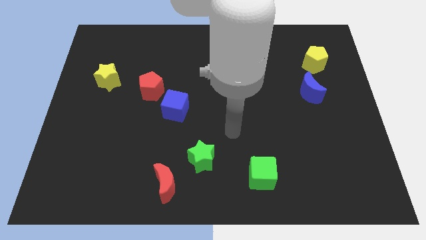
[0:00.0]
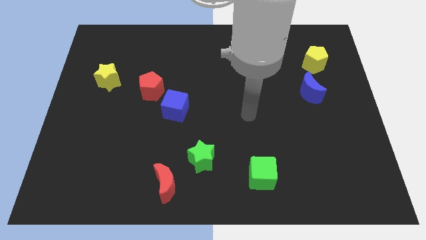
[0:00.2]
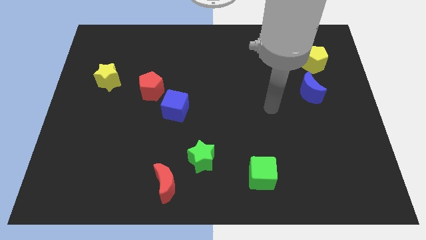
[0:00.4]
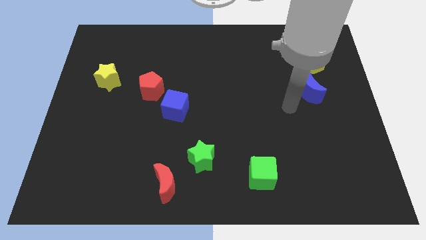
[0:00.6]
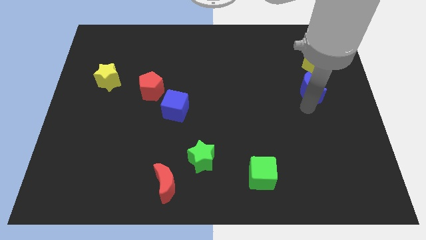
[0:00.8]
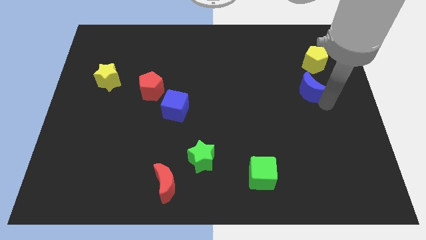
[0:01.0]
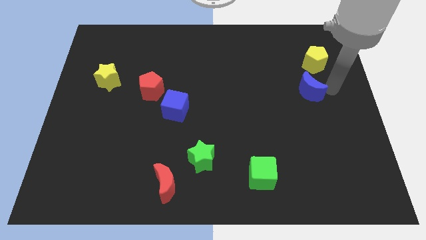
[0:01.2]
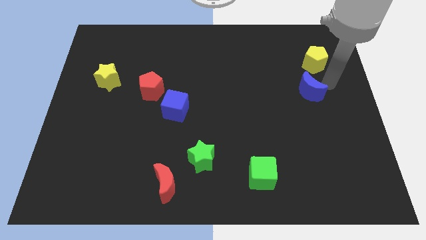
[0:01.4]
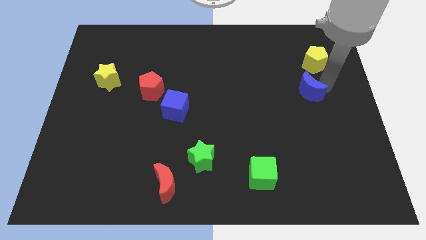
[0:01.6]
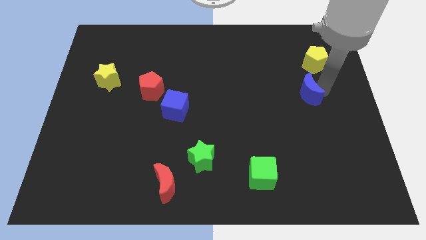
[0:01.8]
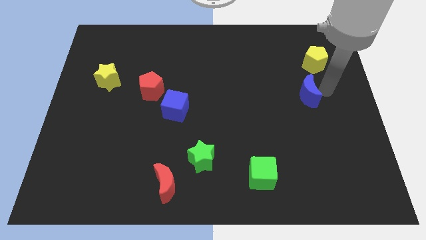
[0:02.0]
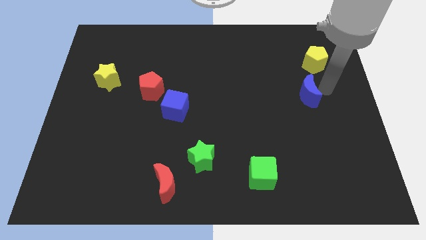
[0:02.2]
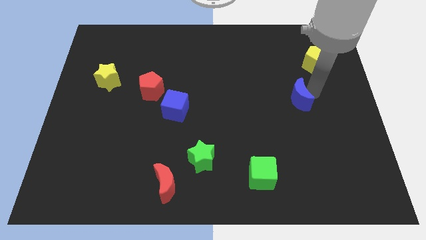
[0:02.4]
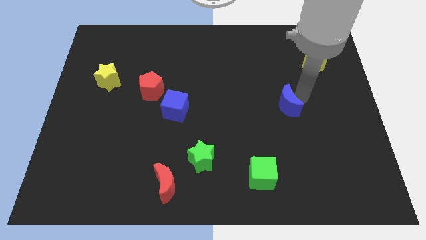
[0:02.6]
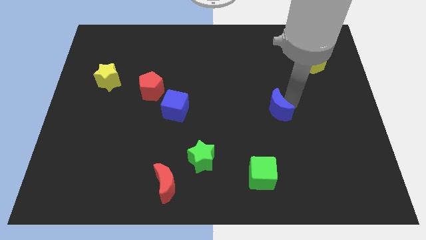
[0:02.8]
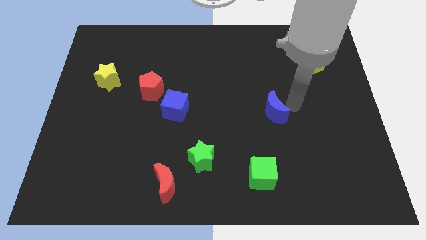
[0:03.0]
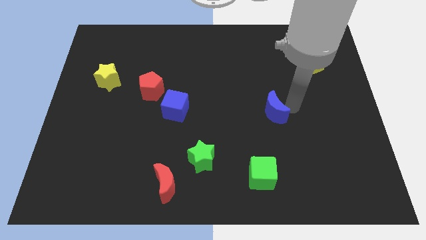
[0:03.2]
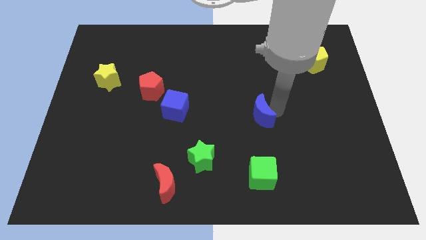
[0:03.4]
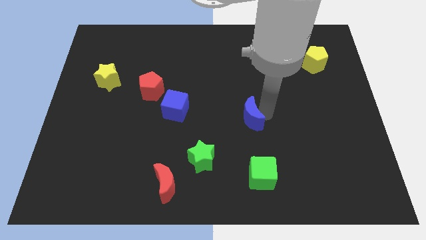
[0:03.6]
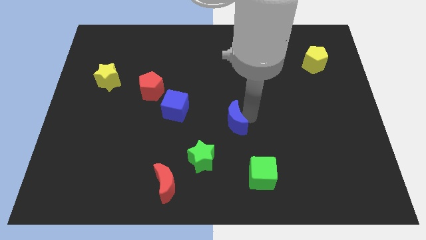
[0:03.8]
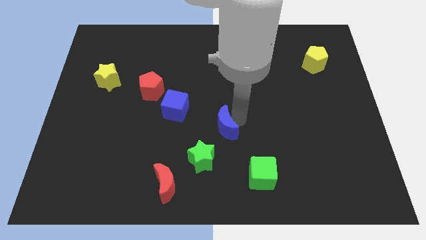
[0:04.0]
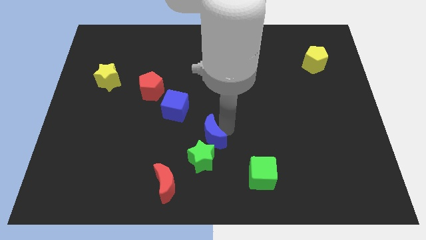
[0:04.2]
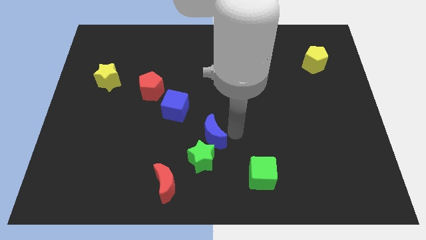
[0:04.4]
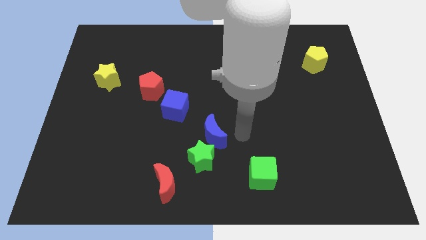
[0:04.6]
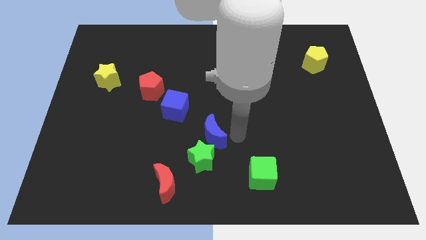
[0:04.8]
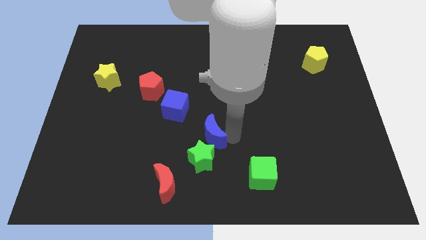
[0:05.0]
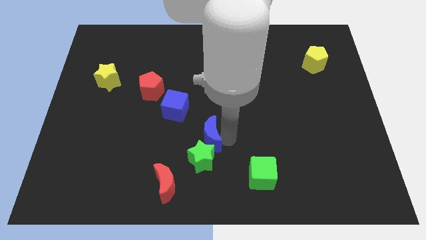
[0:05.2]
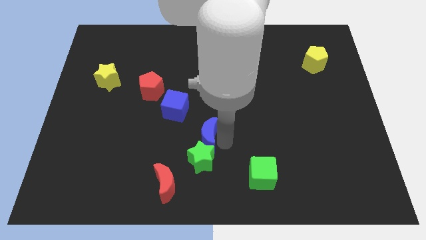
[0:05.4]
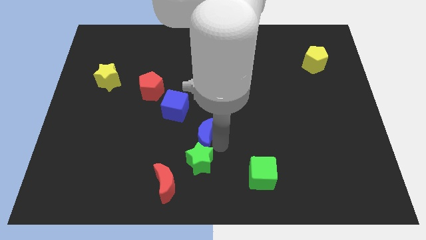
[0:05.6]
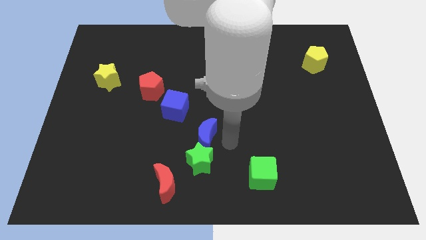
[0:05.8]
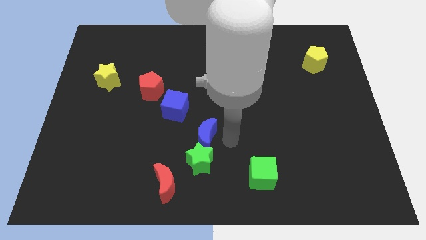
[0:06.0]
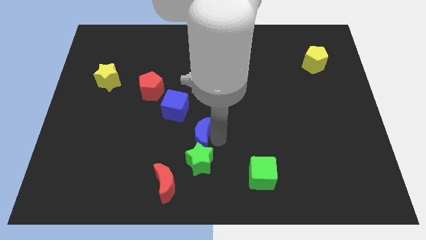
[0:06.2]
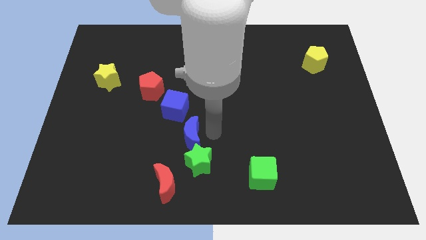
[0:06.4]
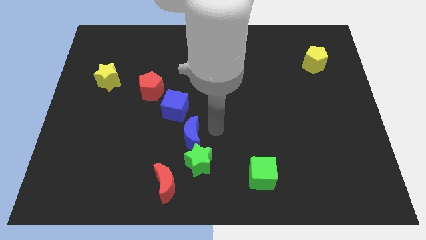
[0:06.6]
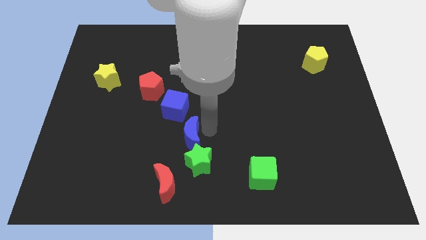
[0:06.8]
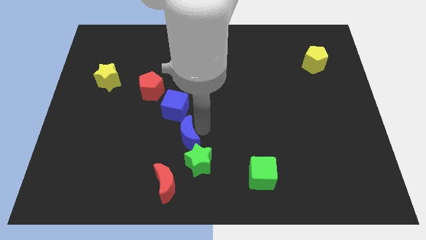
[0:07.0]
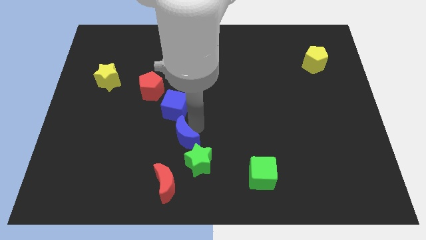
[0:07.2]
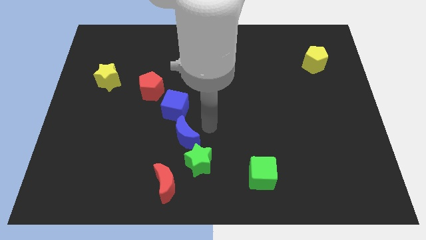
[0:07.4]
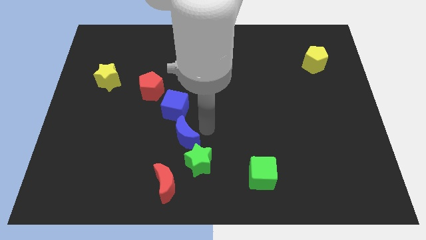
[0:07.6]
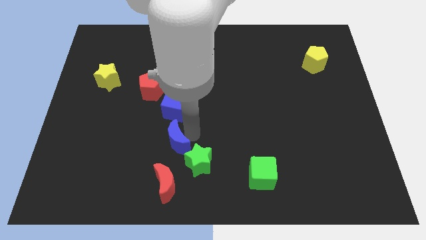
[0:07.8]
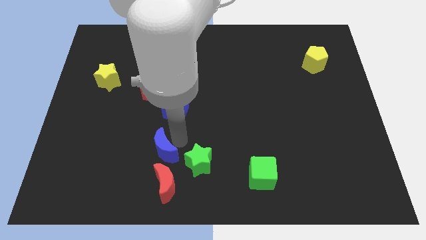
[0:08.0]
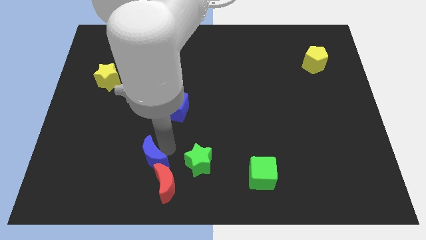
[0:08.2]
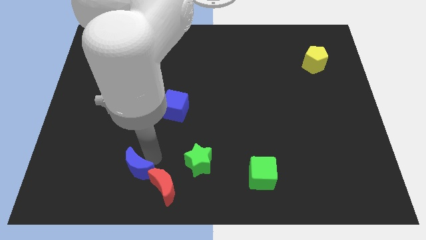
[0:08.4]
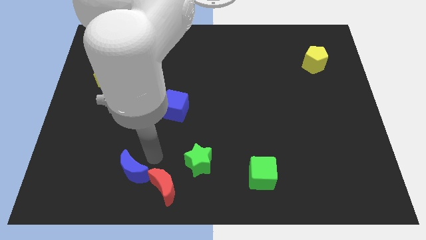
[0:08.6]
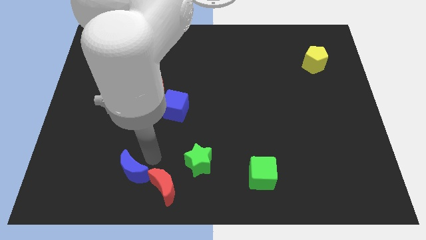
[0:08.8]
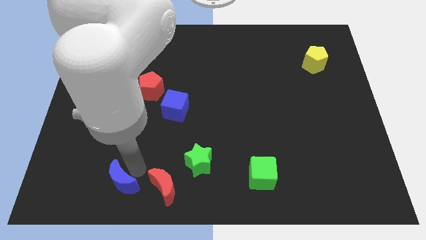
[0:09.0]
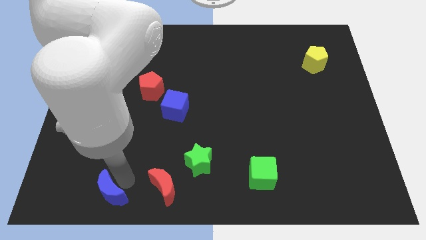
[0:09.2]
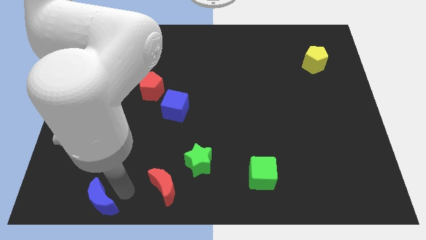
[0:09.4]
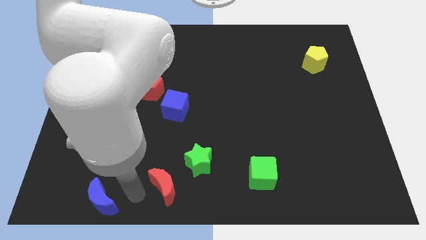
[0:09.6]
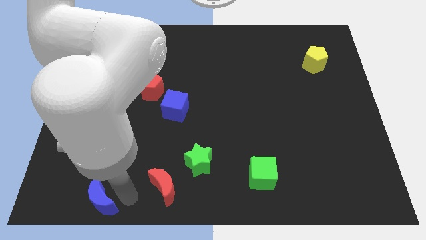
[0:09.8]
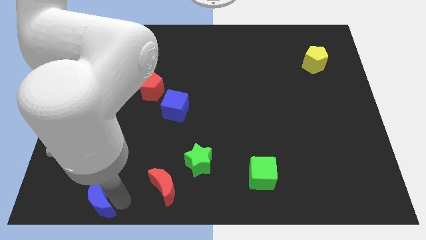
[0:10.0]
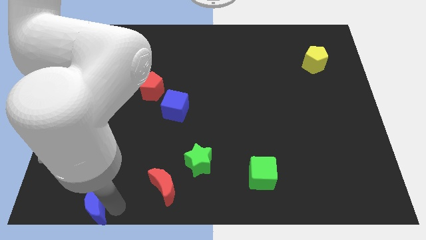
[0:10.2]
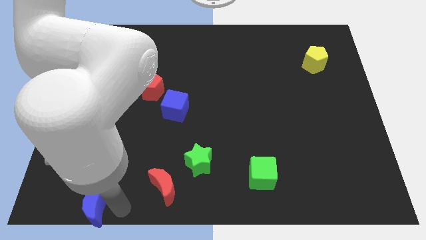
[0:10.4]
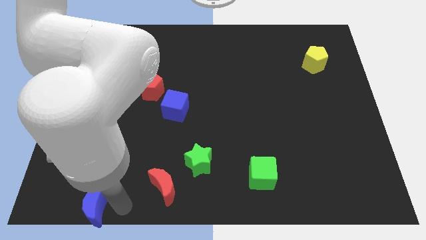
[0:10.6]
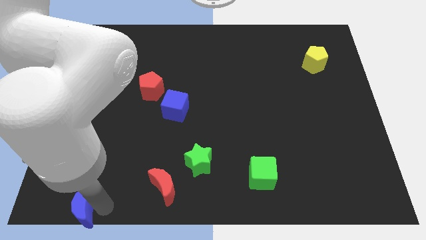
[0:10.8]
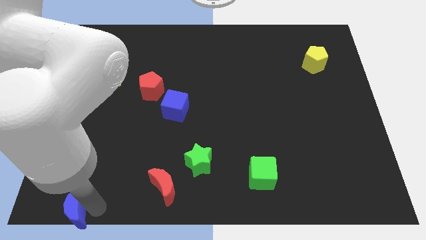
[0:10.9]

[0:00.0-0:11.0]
push the blue moon to the bottom left of the board
